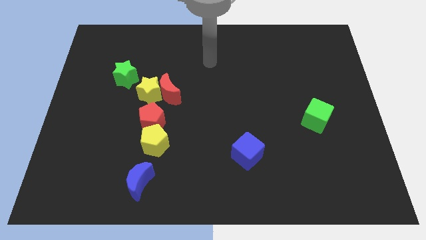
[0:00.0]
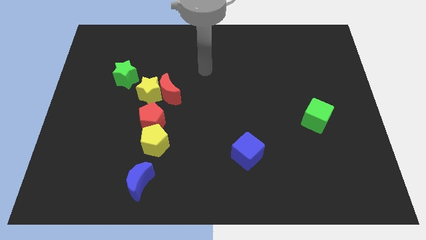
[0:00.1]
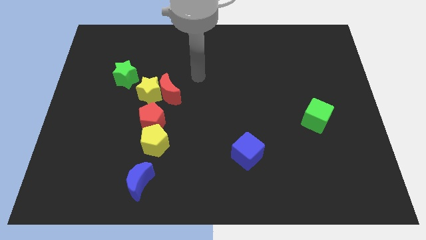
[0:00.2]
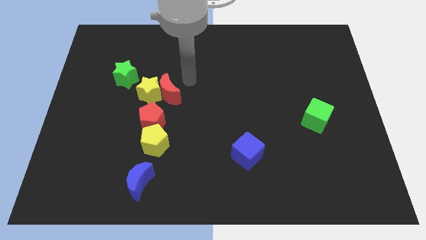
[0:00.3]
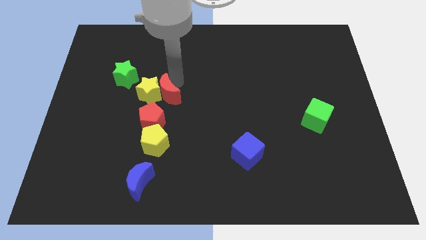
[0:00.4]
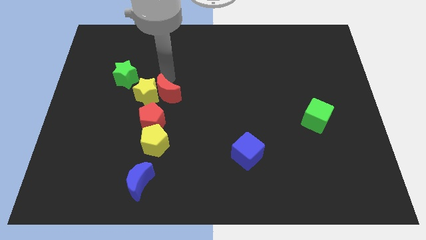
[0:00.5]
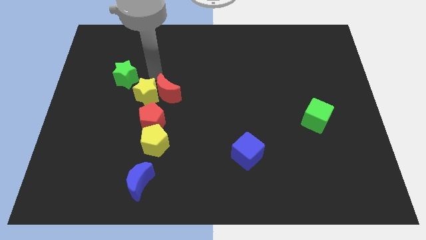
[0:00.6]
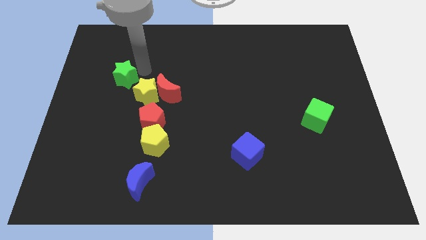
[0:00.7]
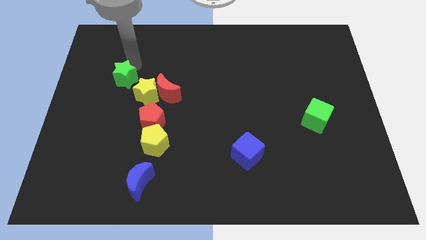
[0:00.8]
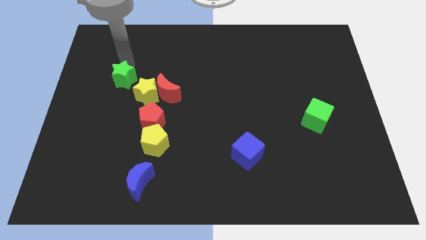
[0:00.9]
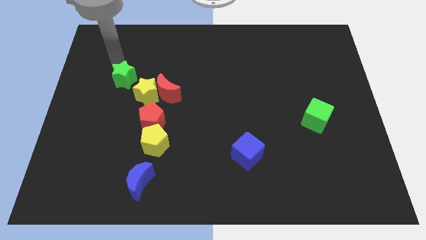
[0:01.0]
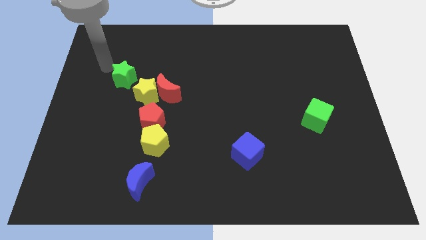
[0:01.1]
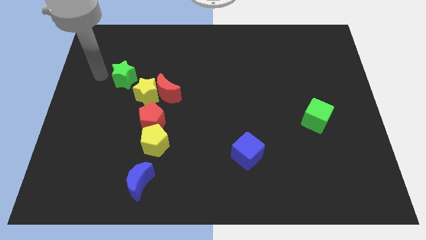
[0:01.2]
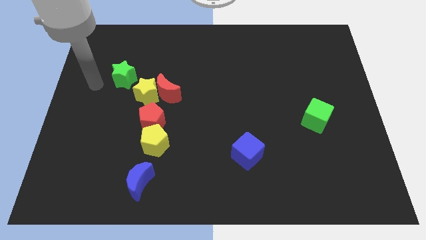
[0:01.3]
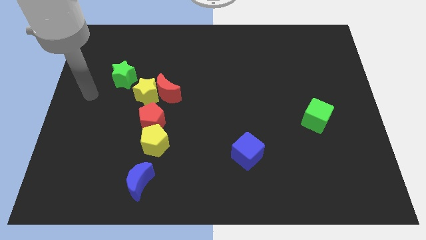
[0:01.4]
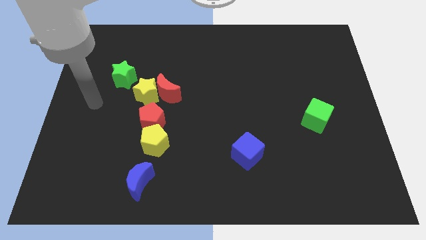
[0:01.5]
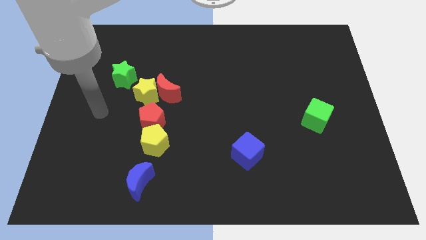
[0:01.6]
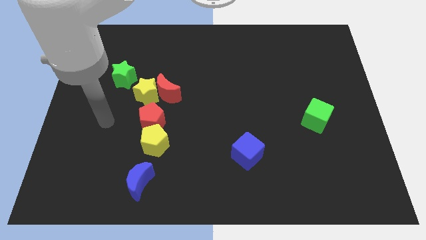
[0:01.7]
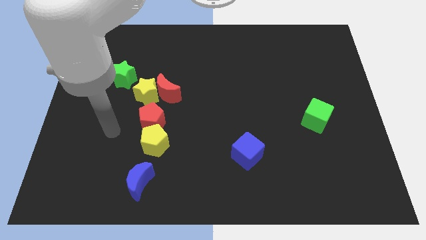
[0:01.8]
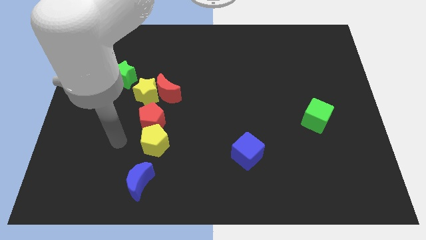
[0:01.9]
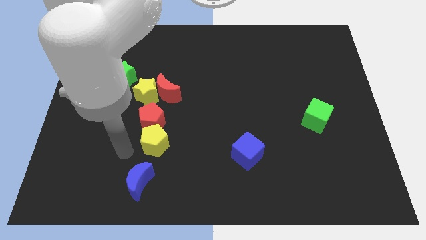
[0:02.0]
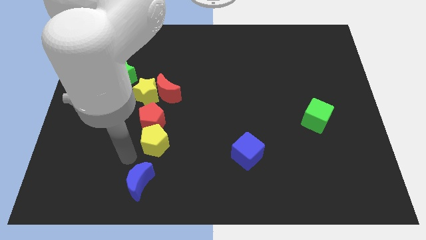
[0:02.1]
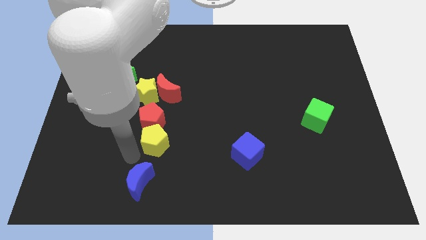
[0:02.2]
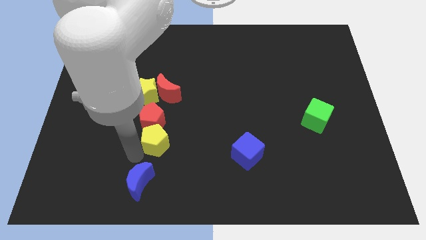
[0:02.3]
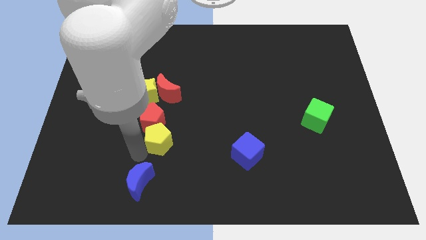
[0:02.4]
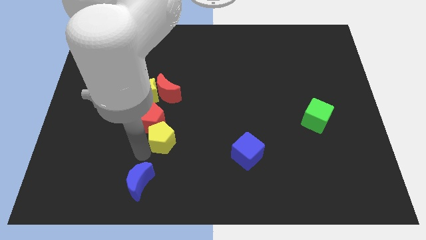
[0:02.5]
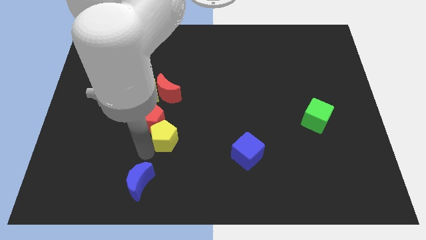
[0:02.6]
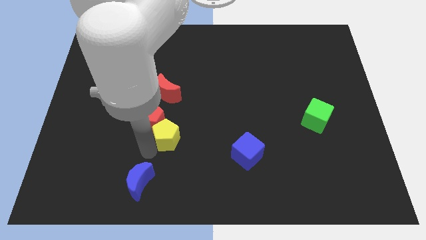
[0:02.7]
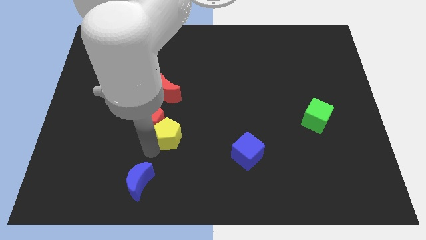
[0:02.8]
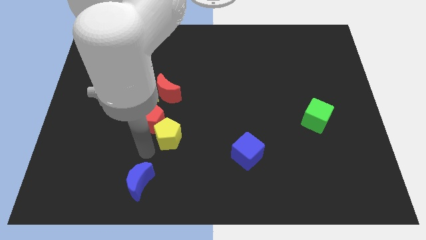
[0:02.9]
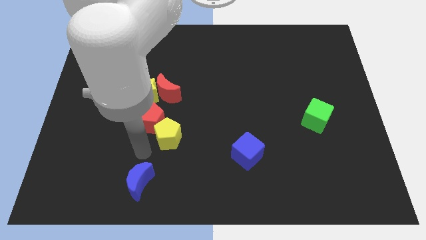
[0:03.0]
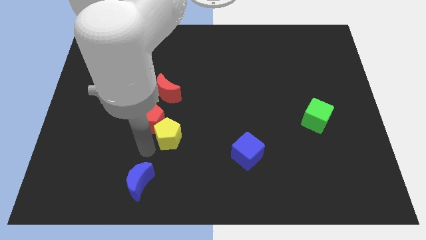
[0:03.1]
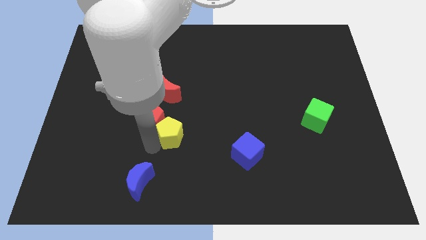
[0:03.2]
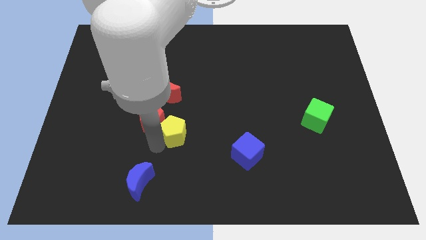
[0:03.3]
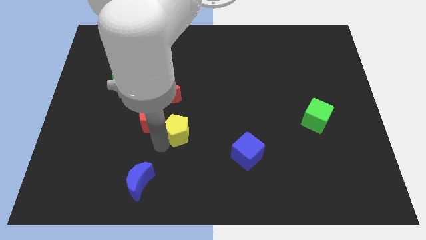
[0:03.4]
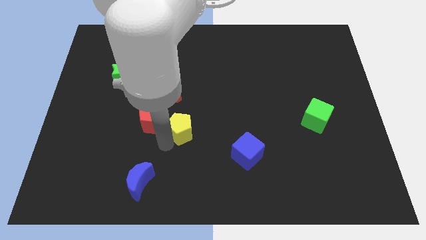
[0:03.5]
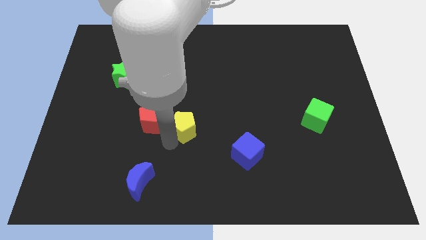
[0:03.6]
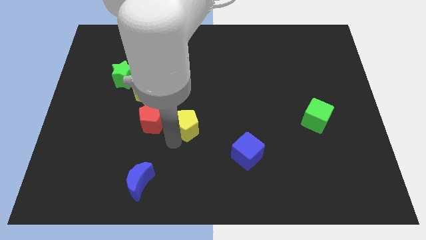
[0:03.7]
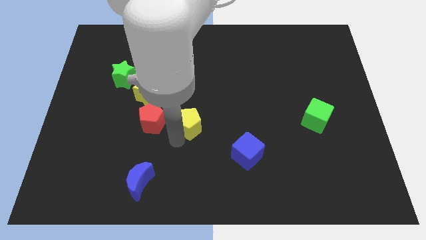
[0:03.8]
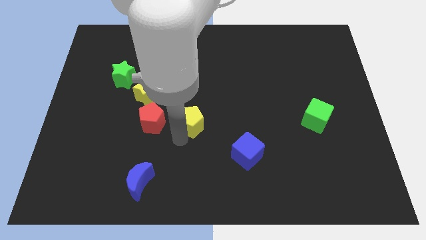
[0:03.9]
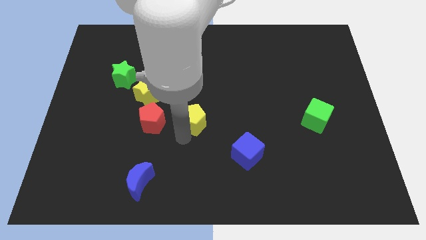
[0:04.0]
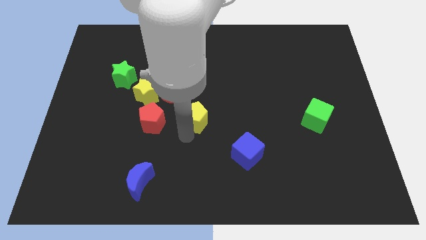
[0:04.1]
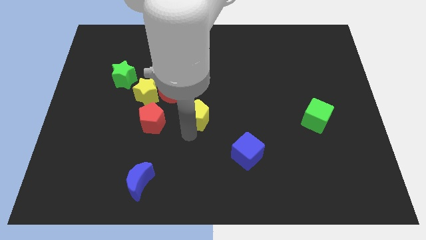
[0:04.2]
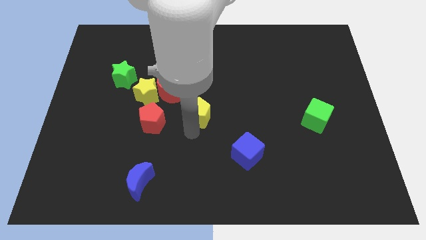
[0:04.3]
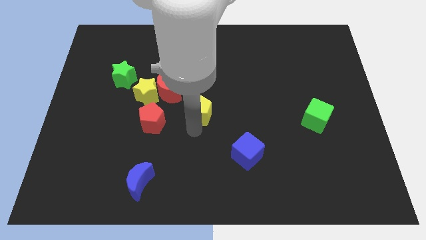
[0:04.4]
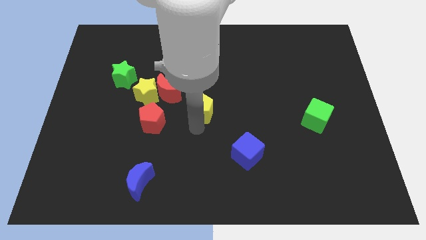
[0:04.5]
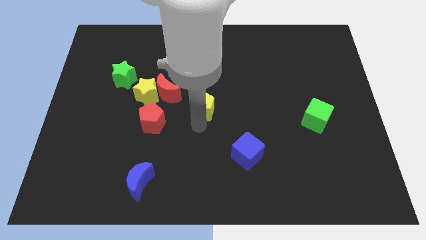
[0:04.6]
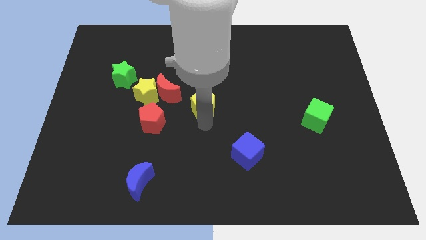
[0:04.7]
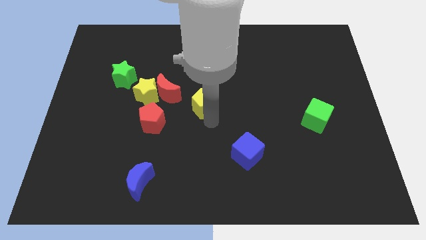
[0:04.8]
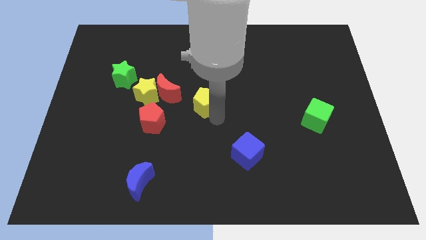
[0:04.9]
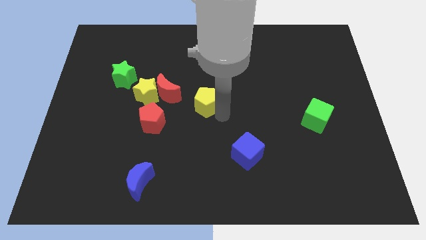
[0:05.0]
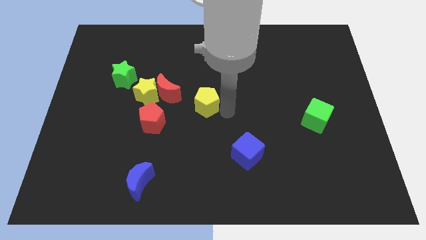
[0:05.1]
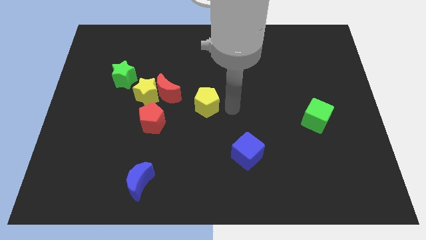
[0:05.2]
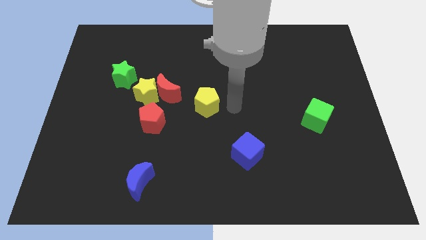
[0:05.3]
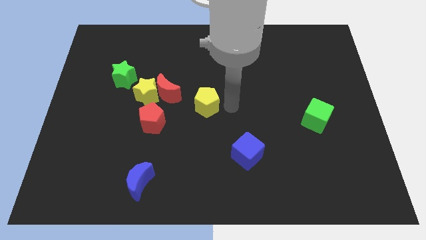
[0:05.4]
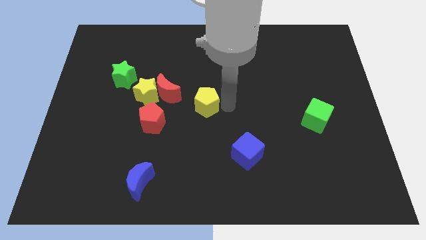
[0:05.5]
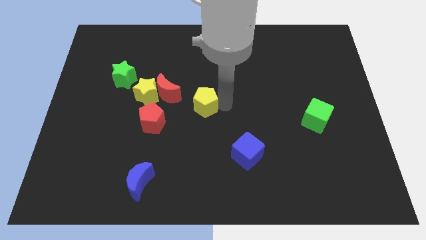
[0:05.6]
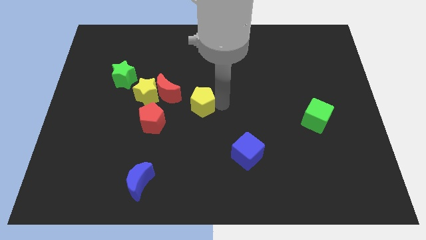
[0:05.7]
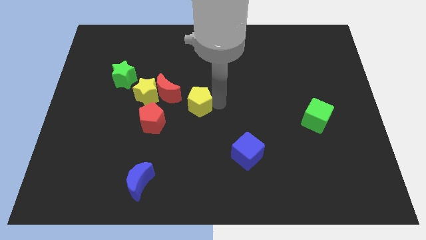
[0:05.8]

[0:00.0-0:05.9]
move the yellow pentagon diagonally up and to the right of the red pentagon

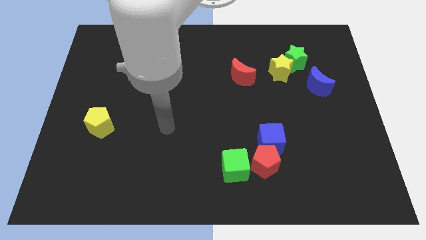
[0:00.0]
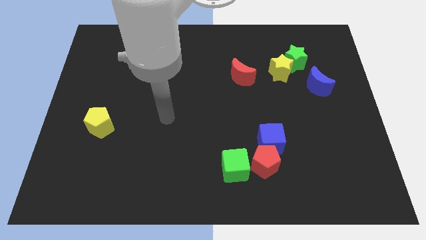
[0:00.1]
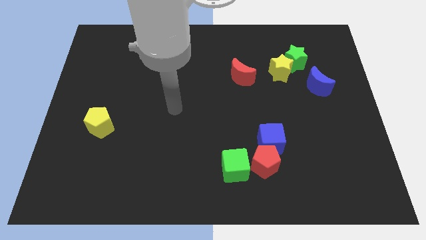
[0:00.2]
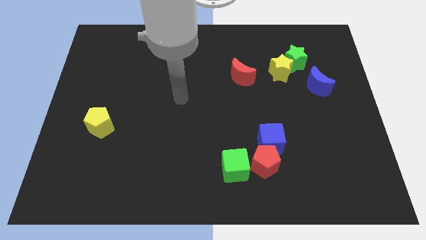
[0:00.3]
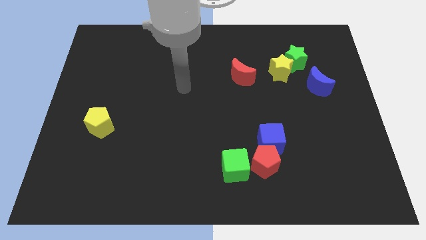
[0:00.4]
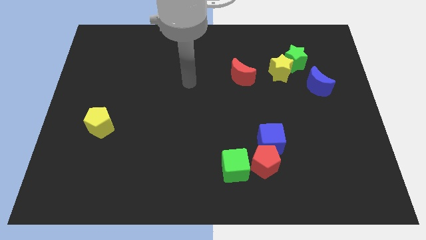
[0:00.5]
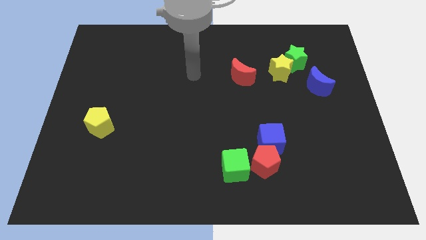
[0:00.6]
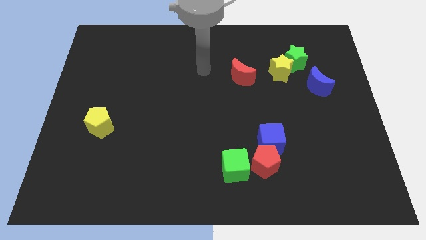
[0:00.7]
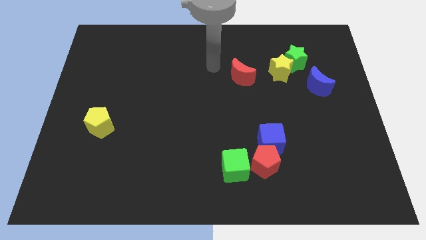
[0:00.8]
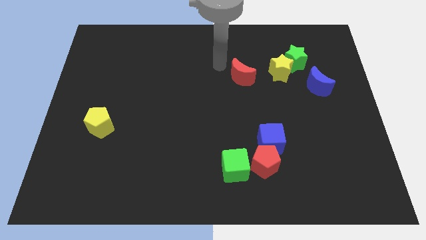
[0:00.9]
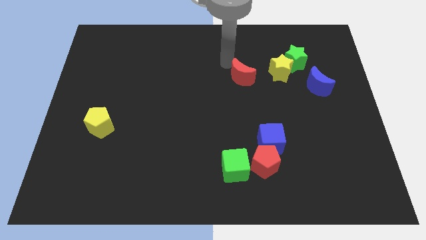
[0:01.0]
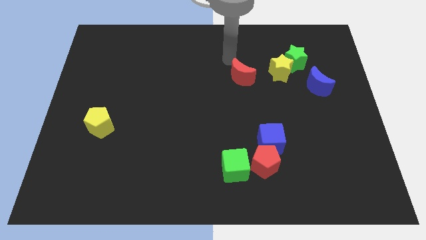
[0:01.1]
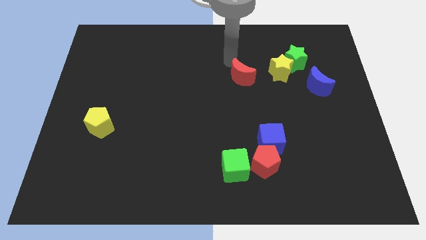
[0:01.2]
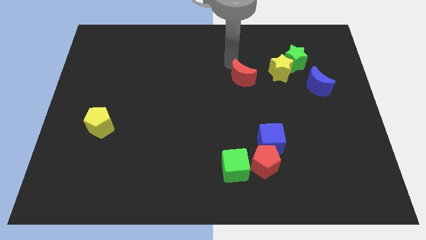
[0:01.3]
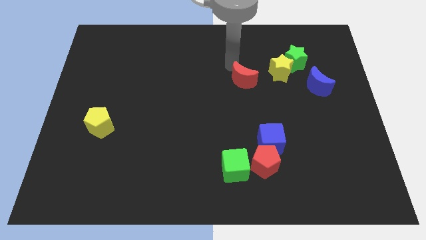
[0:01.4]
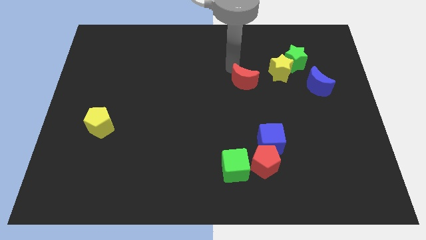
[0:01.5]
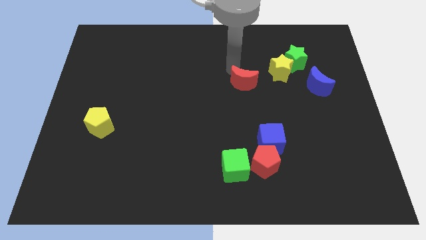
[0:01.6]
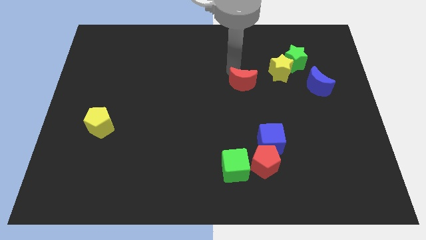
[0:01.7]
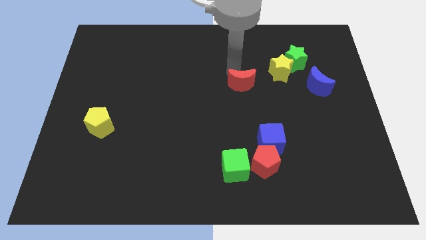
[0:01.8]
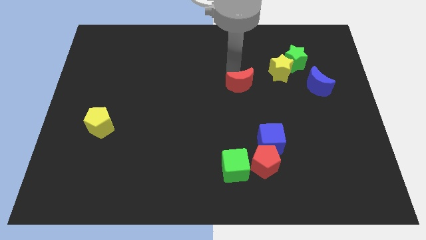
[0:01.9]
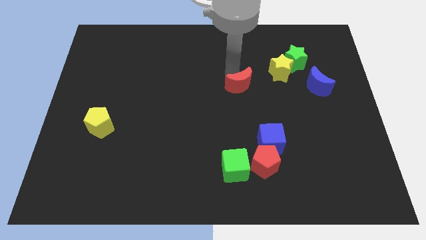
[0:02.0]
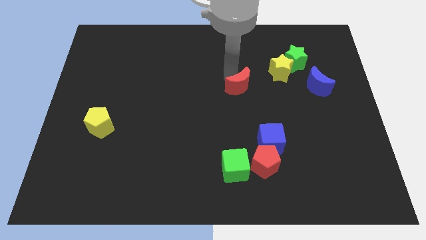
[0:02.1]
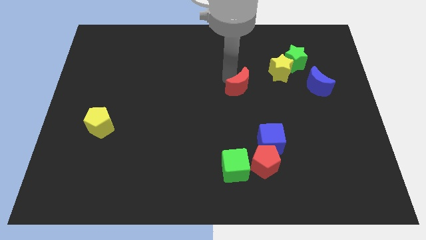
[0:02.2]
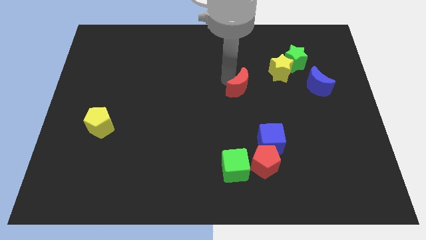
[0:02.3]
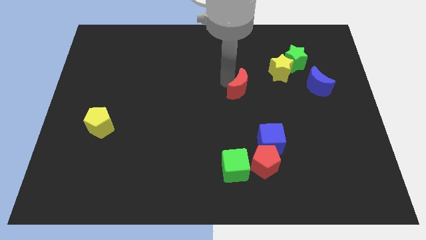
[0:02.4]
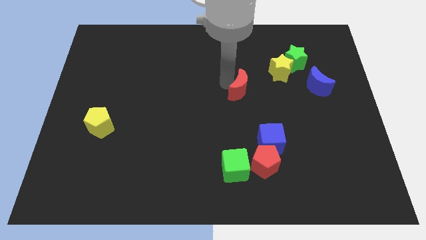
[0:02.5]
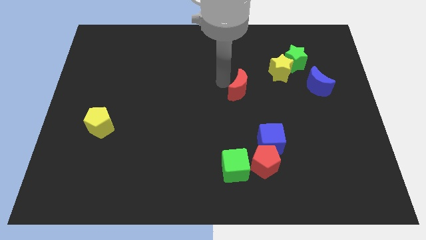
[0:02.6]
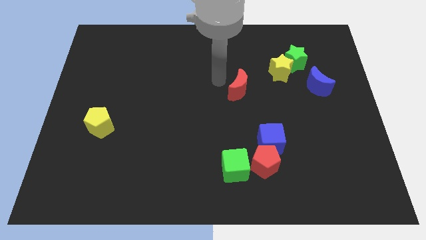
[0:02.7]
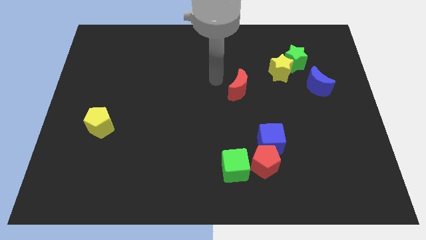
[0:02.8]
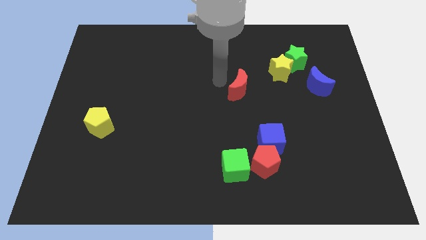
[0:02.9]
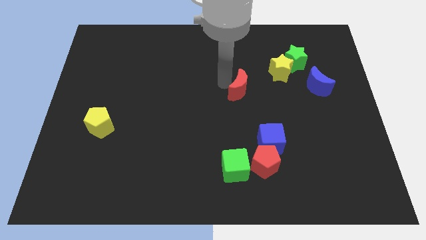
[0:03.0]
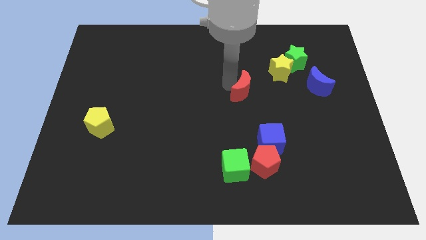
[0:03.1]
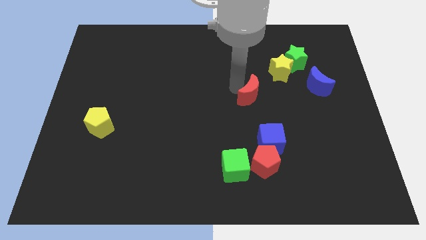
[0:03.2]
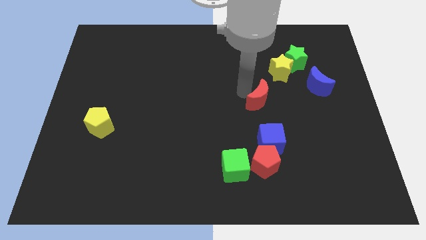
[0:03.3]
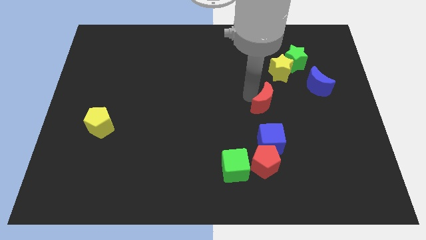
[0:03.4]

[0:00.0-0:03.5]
put the red moon below the yellow star
